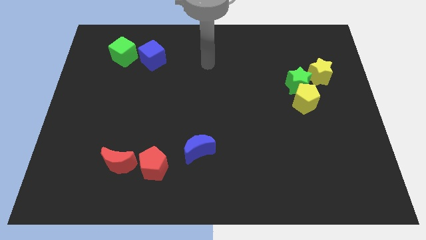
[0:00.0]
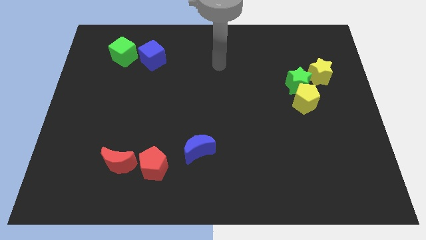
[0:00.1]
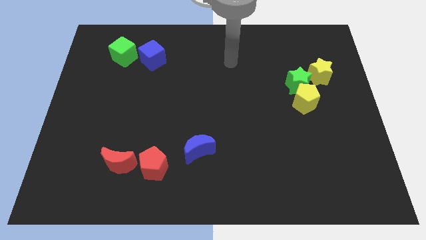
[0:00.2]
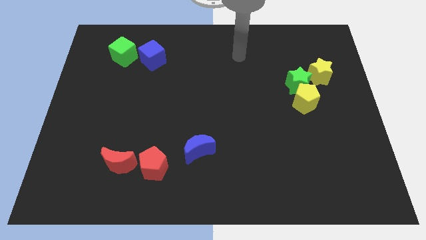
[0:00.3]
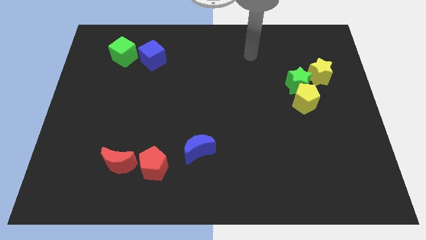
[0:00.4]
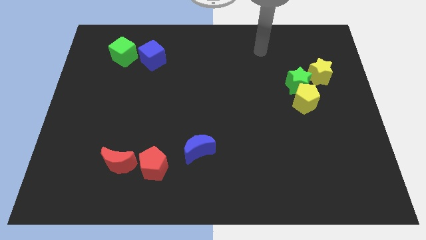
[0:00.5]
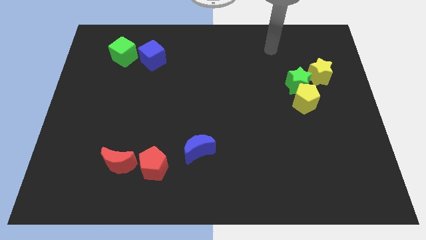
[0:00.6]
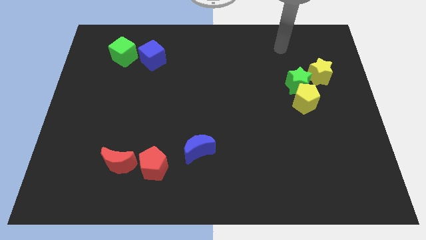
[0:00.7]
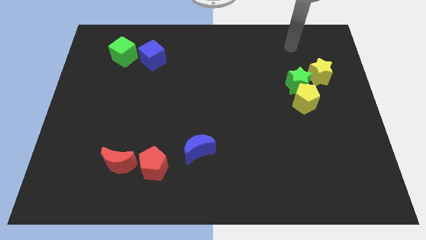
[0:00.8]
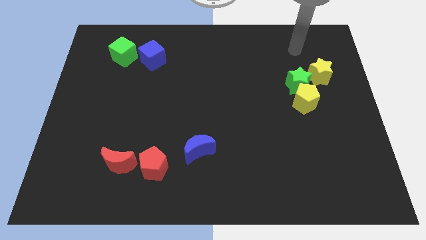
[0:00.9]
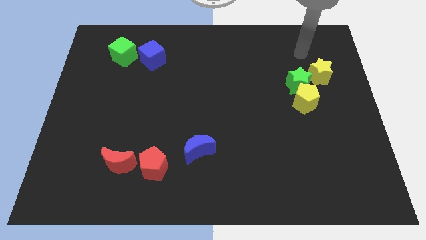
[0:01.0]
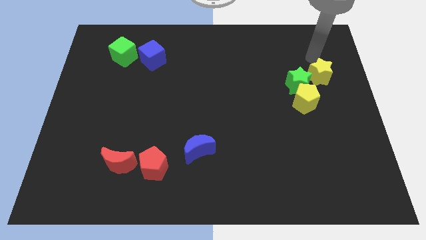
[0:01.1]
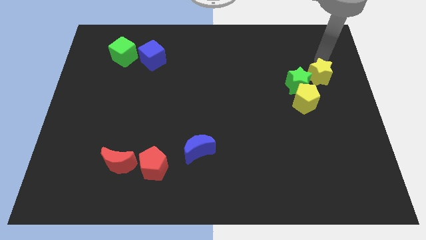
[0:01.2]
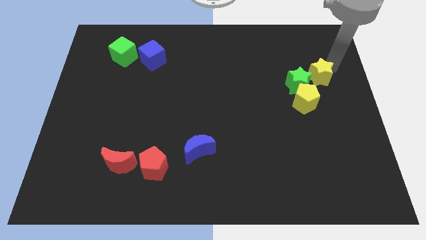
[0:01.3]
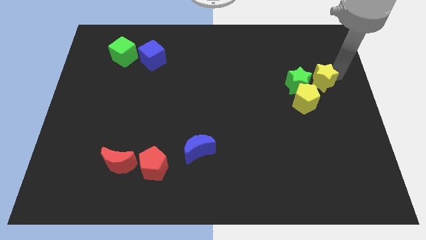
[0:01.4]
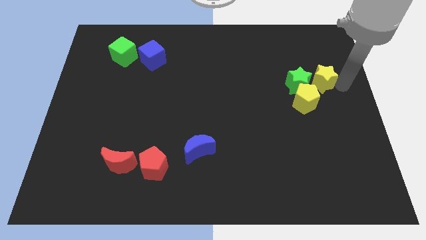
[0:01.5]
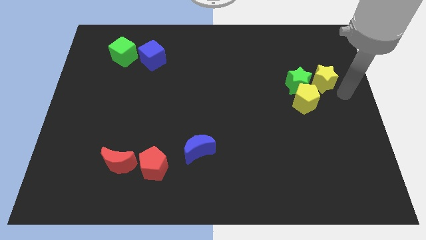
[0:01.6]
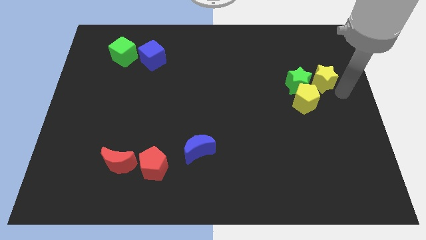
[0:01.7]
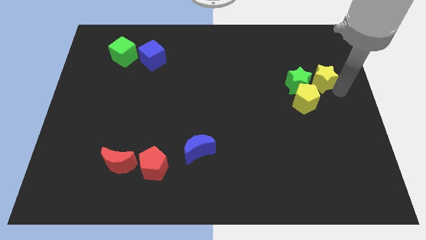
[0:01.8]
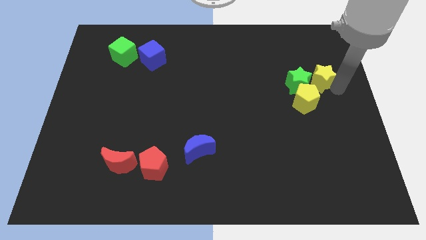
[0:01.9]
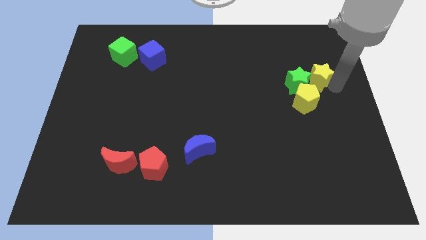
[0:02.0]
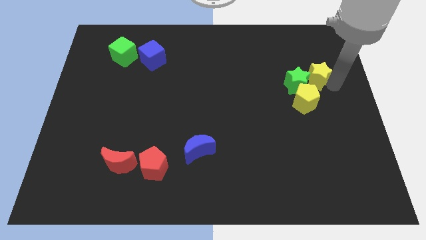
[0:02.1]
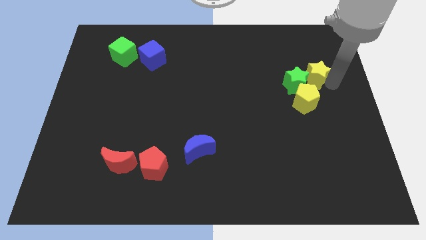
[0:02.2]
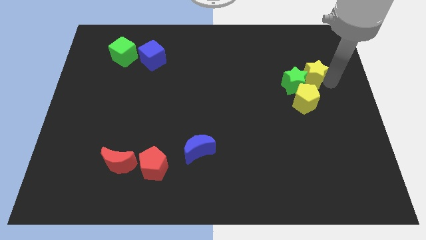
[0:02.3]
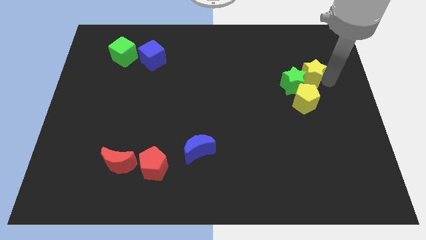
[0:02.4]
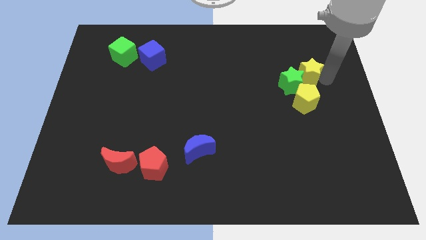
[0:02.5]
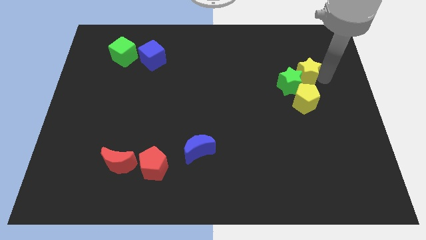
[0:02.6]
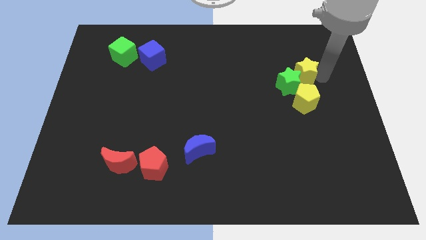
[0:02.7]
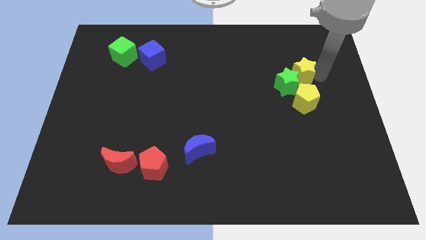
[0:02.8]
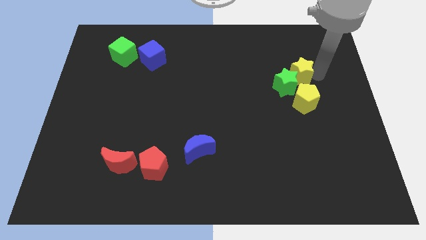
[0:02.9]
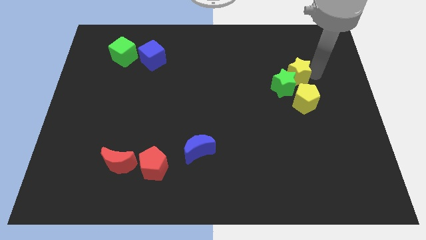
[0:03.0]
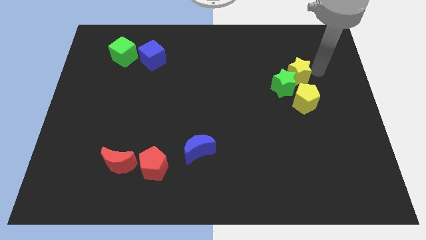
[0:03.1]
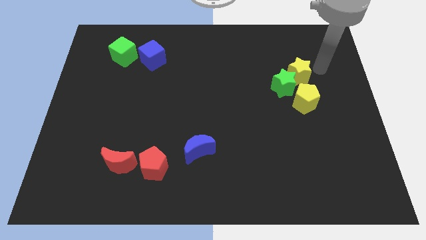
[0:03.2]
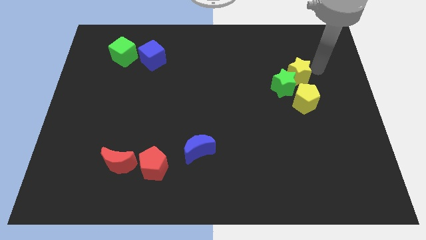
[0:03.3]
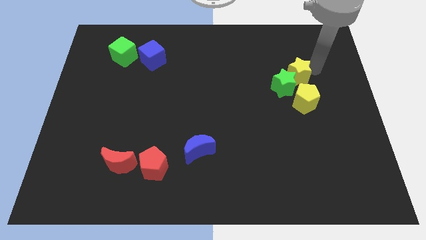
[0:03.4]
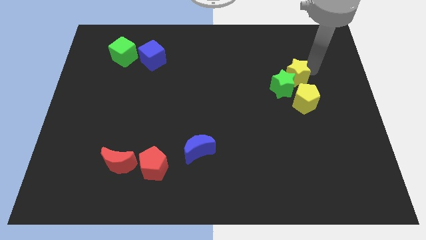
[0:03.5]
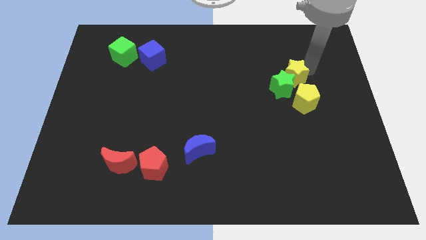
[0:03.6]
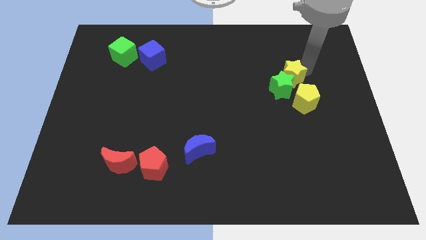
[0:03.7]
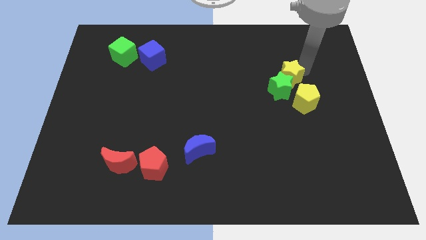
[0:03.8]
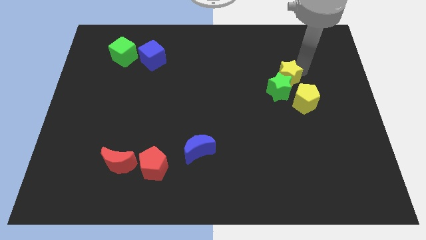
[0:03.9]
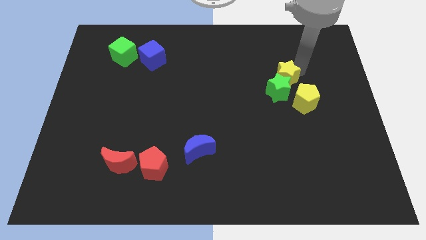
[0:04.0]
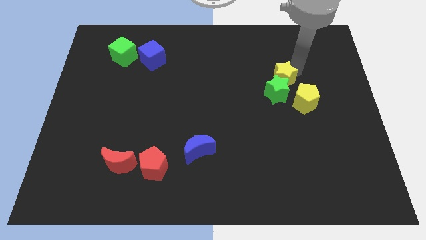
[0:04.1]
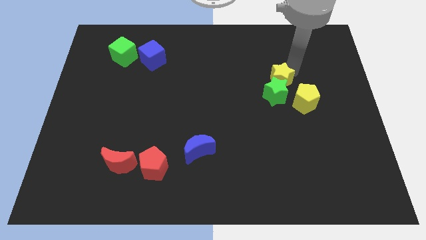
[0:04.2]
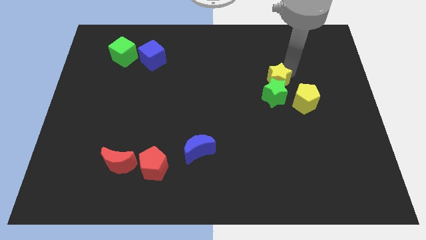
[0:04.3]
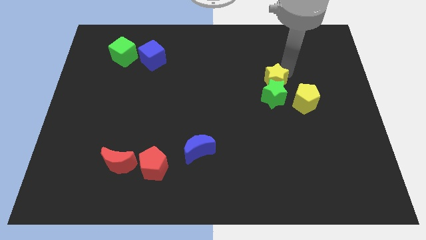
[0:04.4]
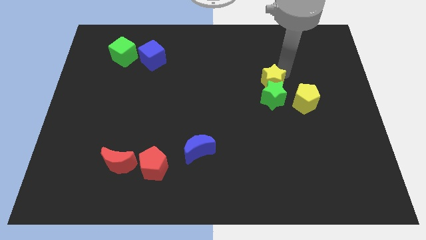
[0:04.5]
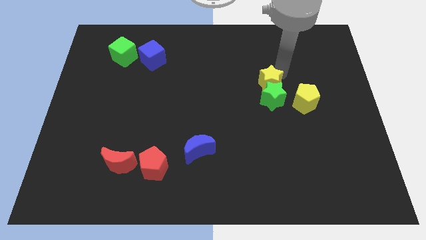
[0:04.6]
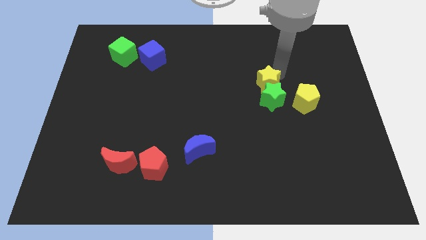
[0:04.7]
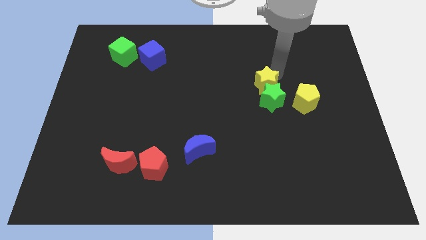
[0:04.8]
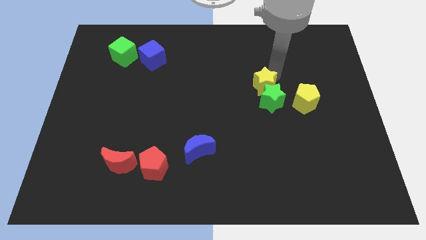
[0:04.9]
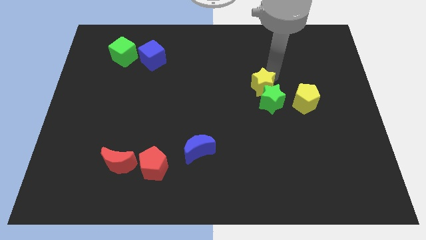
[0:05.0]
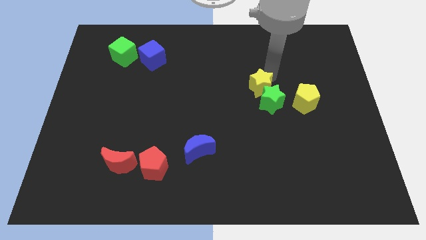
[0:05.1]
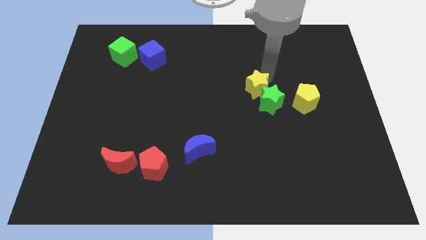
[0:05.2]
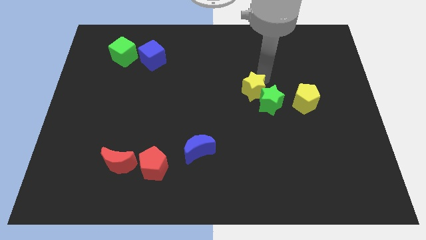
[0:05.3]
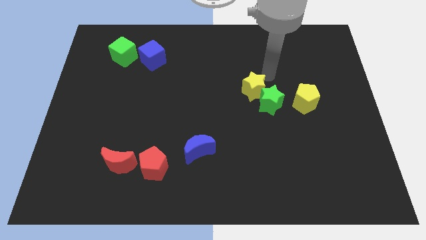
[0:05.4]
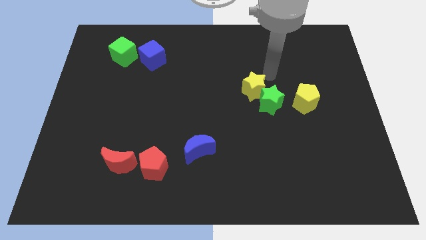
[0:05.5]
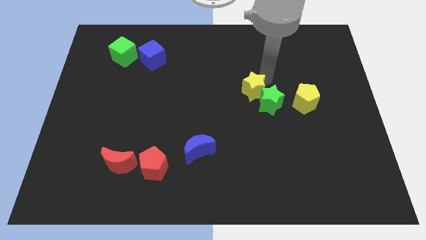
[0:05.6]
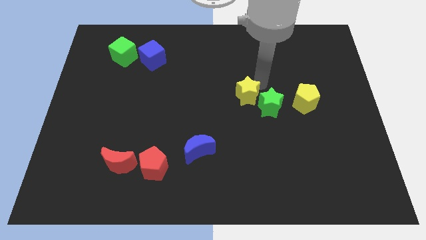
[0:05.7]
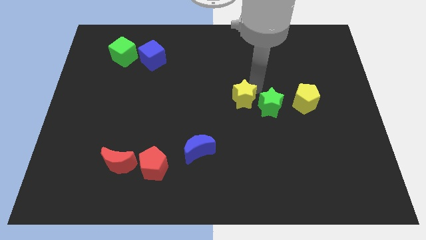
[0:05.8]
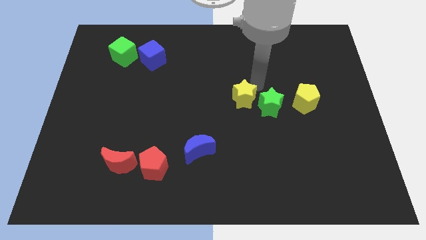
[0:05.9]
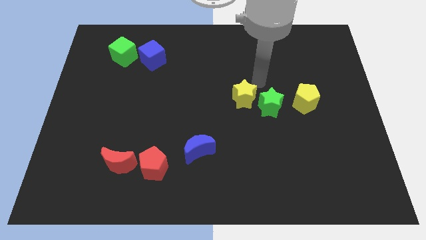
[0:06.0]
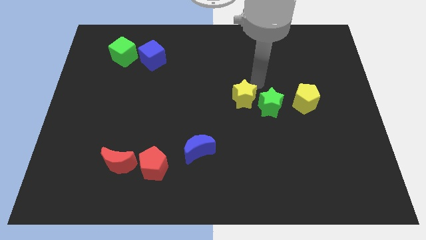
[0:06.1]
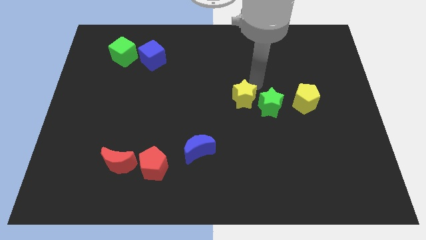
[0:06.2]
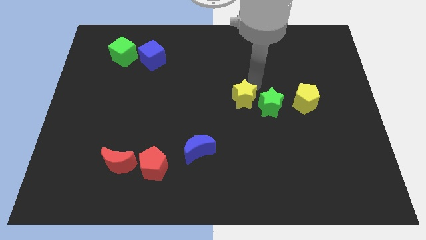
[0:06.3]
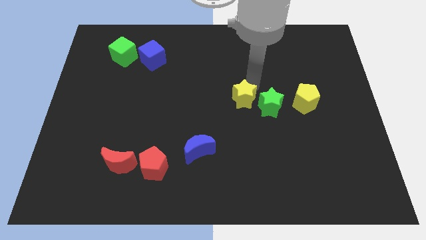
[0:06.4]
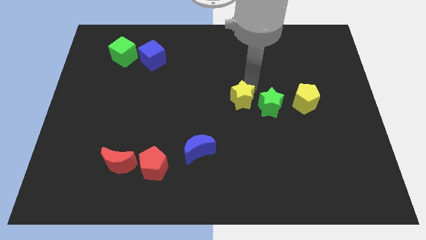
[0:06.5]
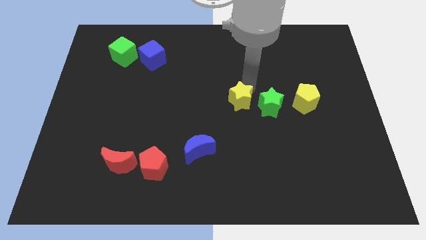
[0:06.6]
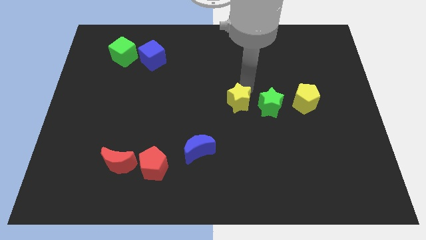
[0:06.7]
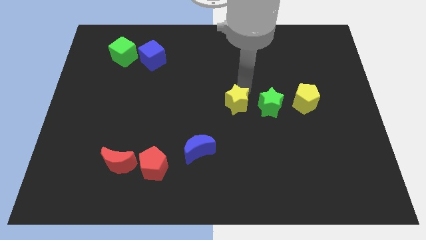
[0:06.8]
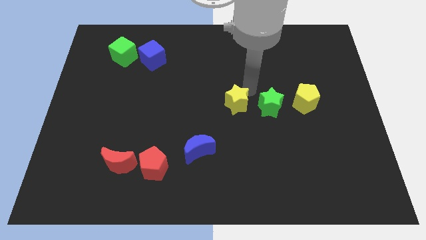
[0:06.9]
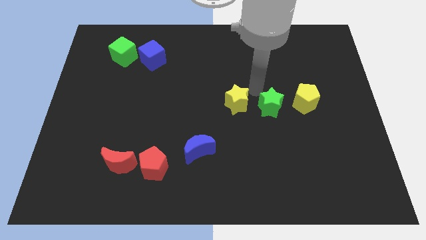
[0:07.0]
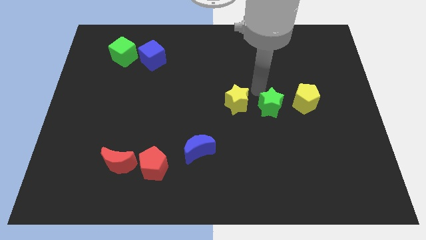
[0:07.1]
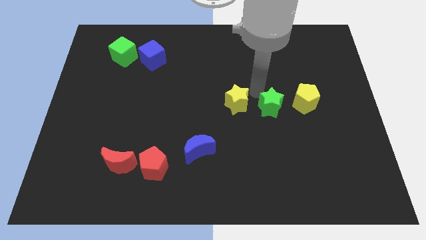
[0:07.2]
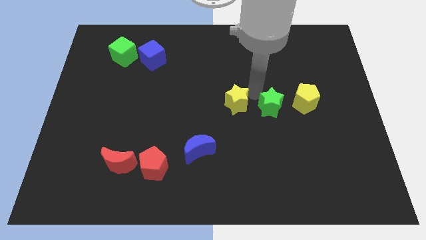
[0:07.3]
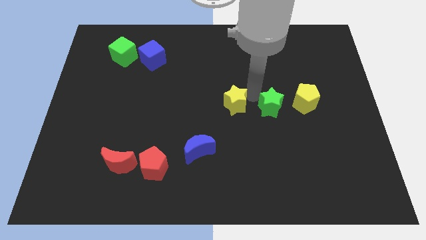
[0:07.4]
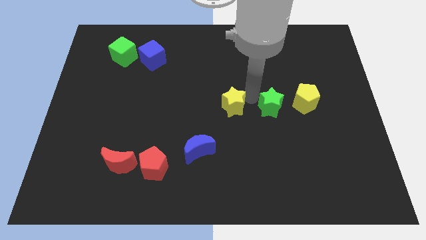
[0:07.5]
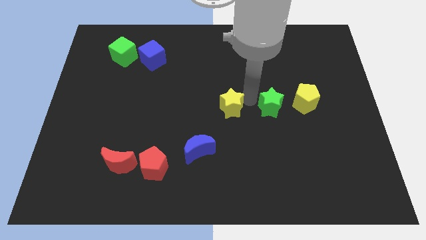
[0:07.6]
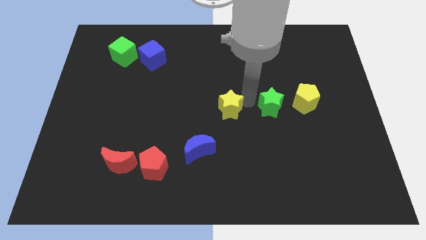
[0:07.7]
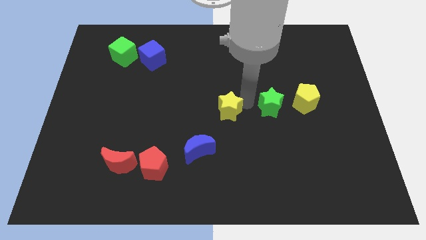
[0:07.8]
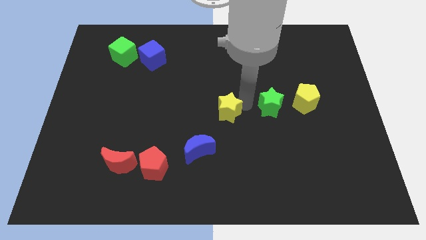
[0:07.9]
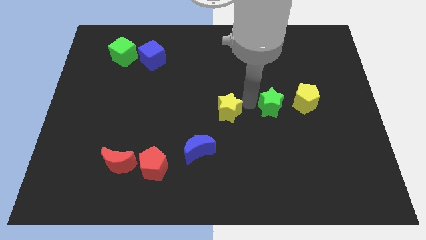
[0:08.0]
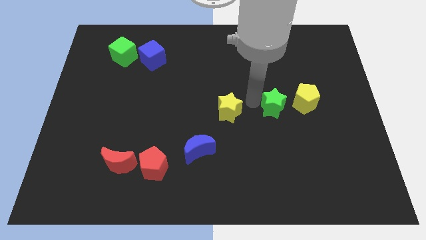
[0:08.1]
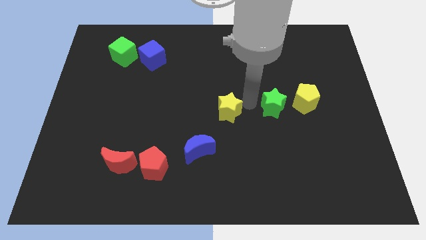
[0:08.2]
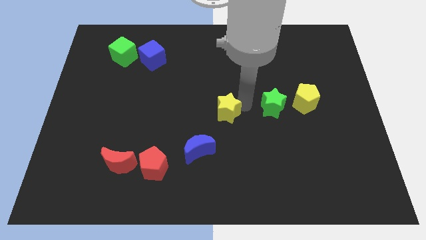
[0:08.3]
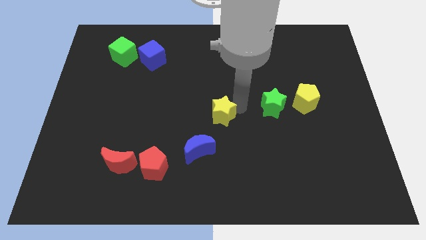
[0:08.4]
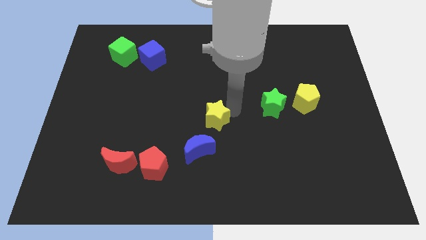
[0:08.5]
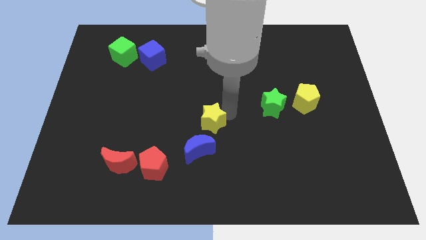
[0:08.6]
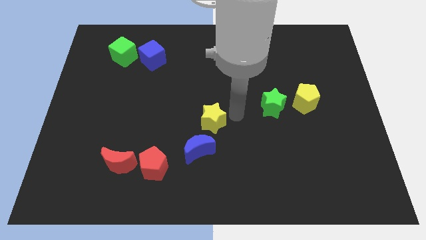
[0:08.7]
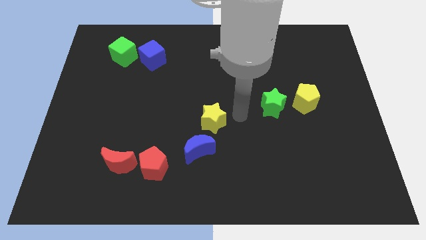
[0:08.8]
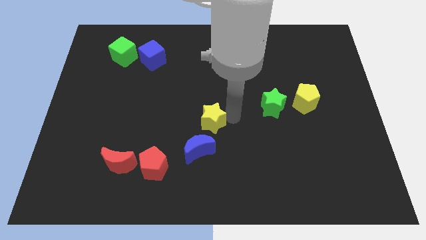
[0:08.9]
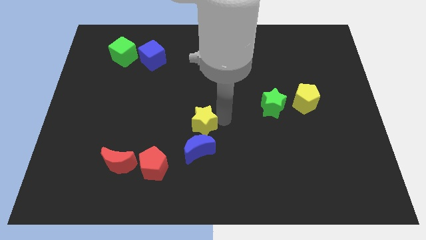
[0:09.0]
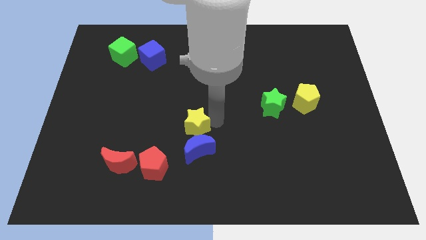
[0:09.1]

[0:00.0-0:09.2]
push the yellow star diagonally up and to the left of the blue moon
